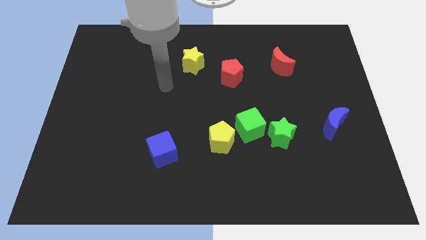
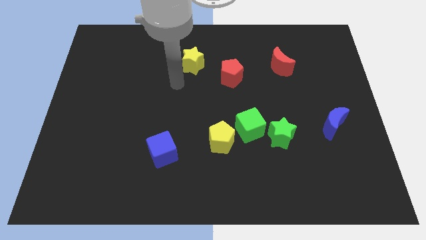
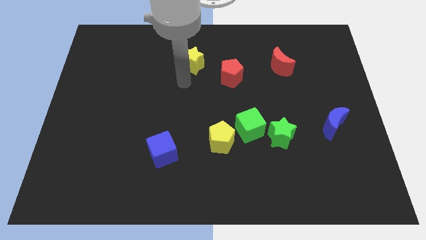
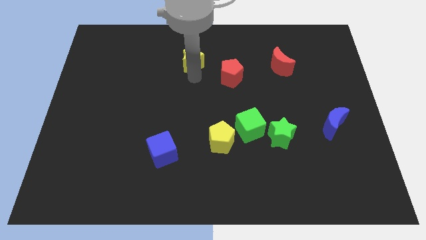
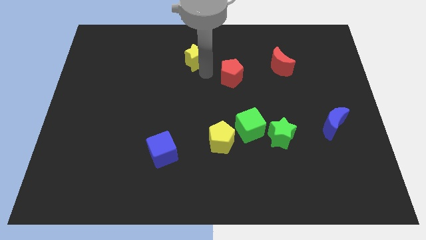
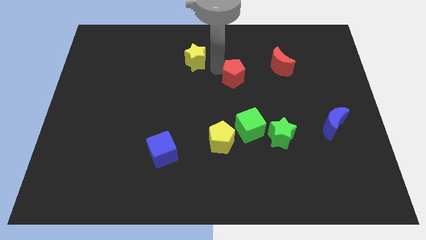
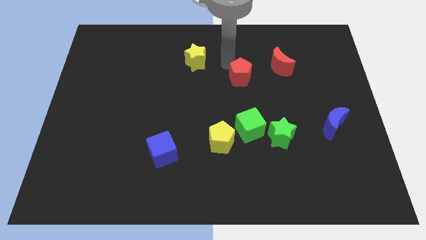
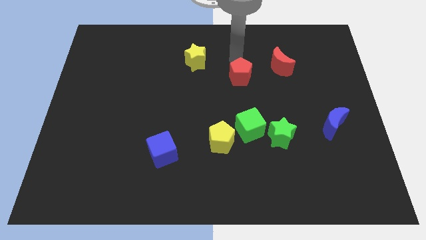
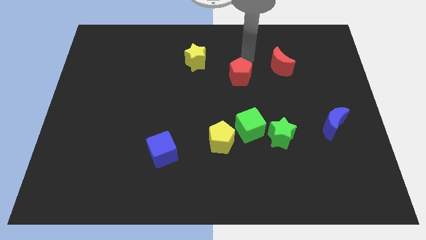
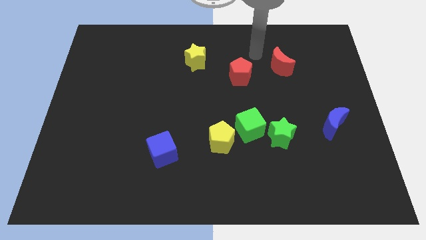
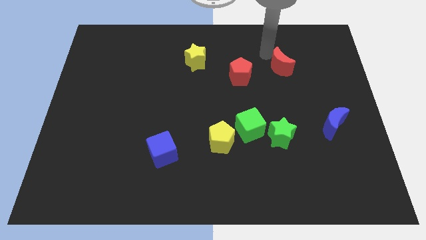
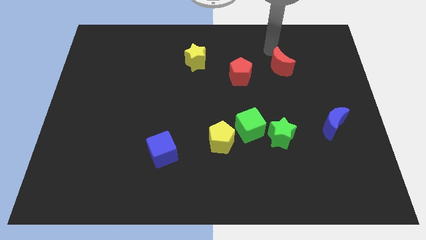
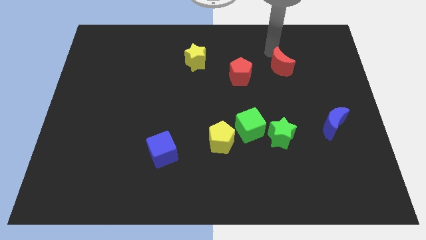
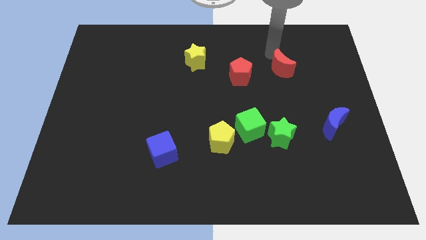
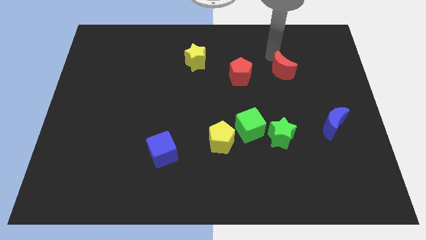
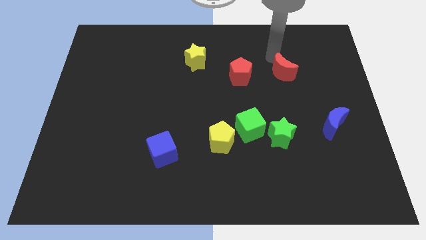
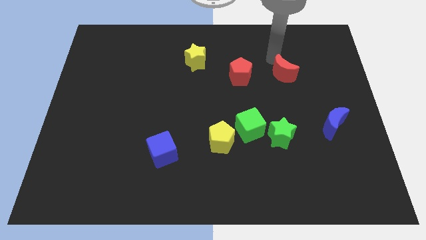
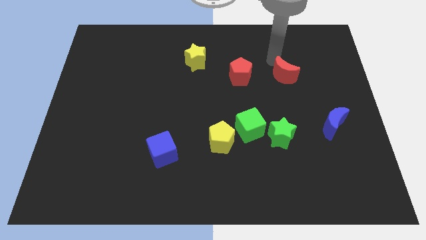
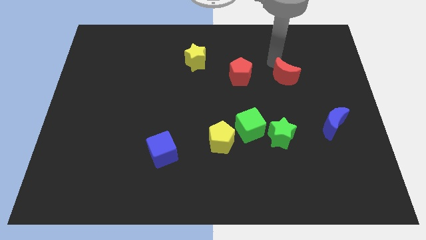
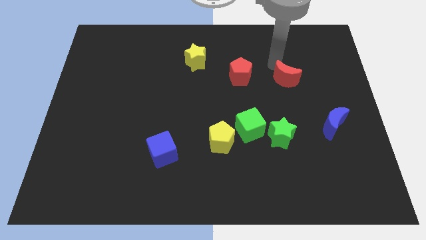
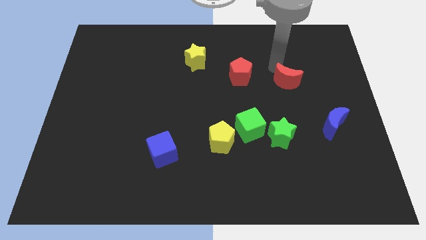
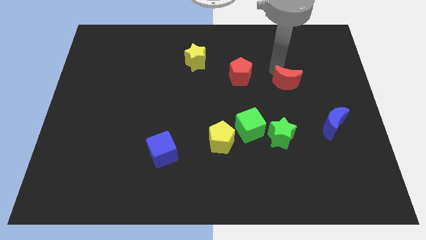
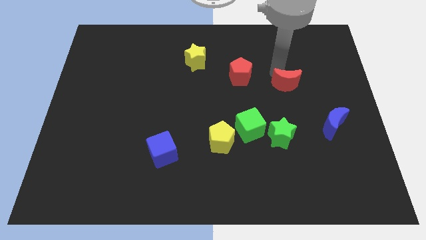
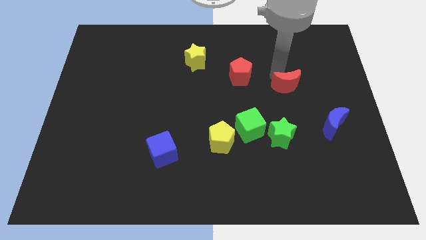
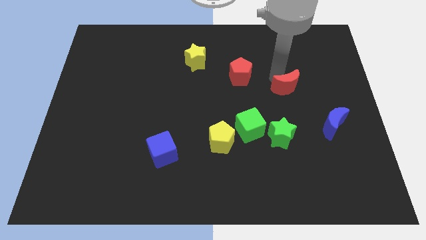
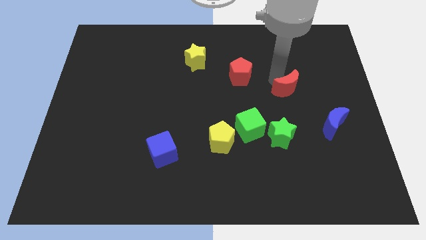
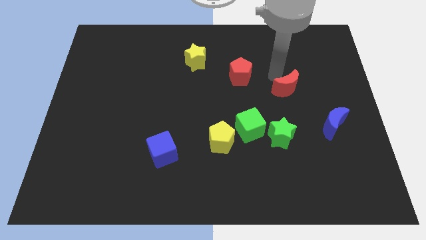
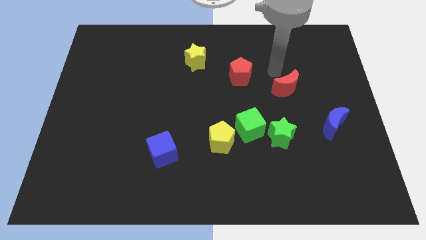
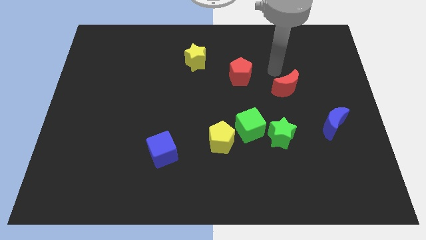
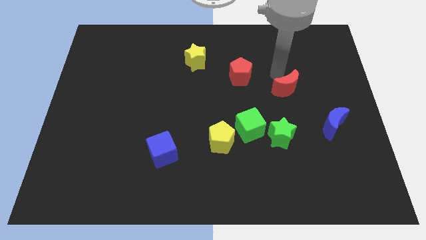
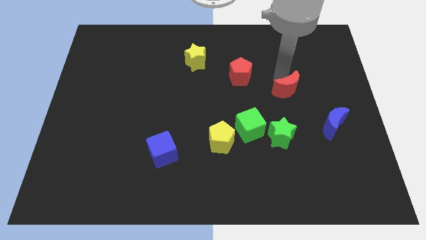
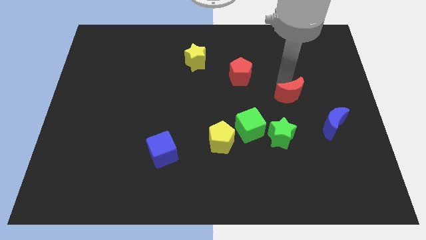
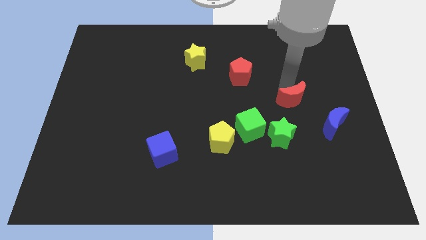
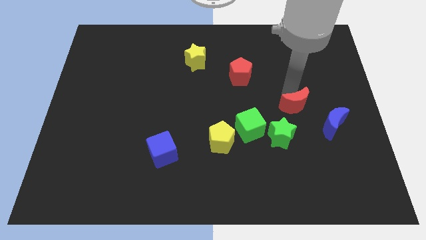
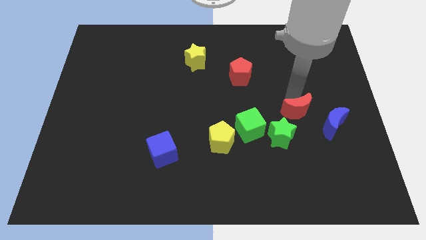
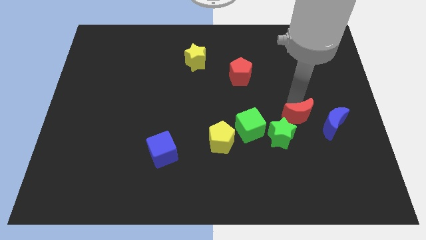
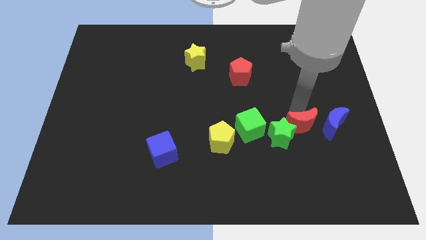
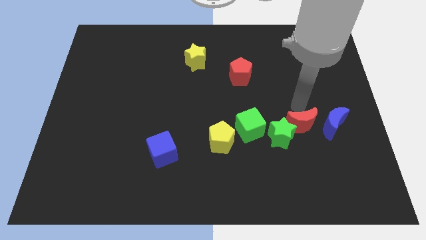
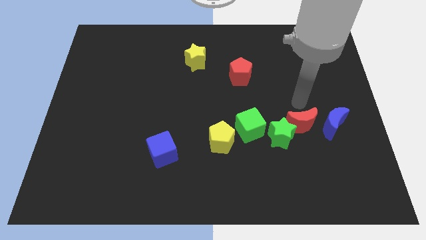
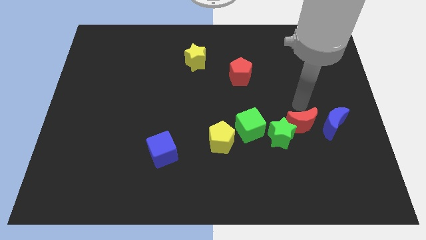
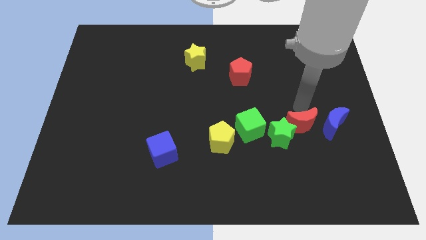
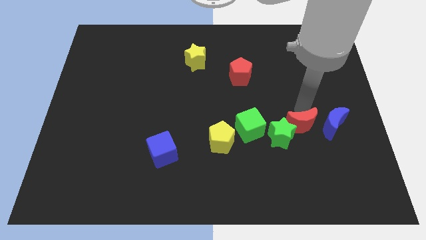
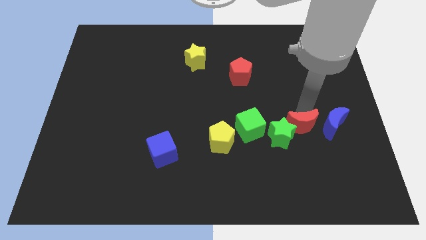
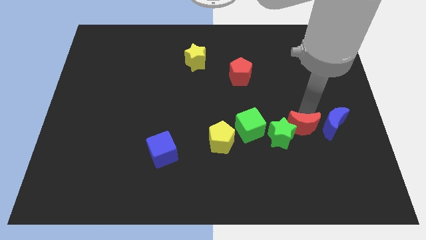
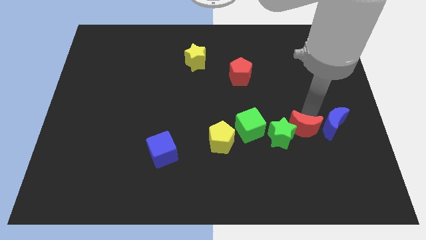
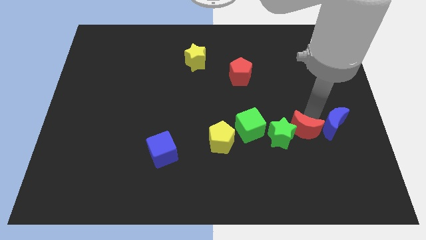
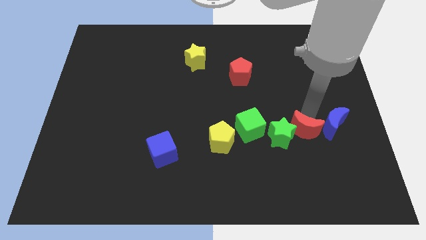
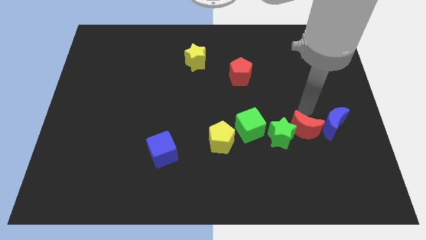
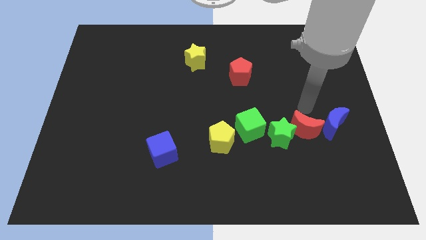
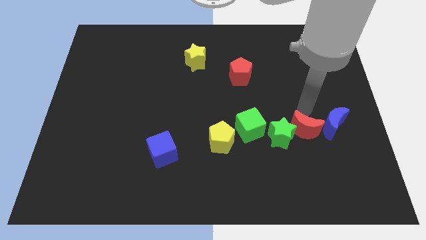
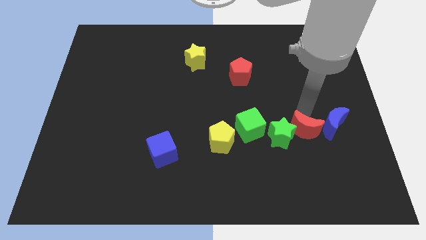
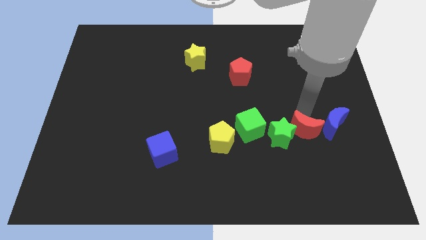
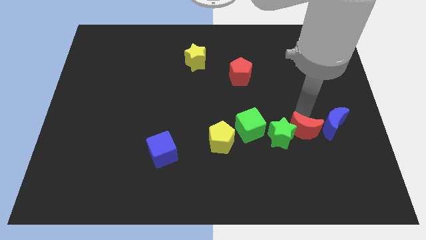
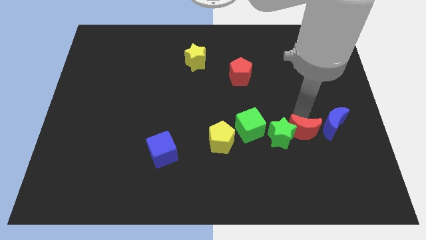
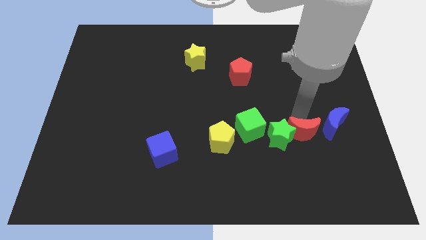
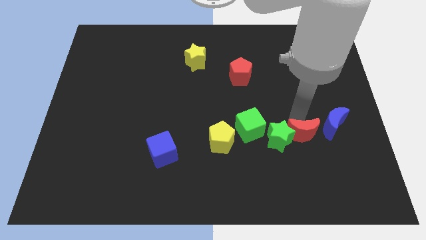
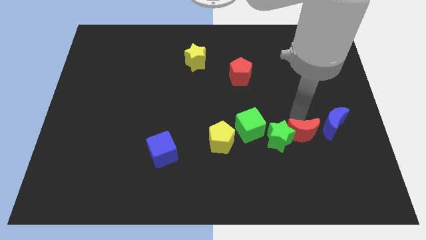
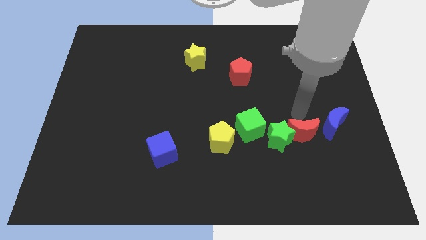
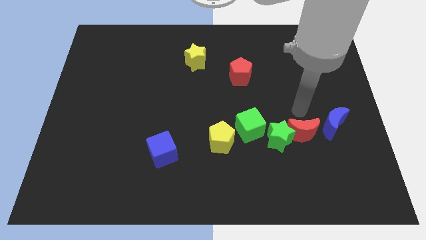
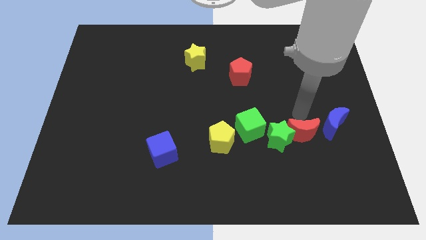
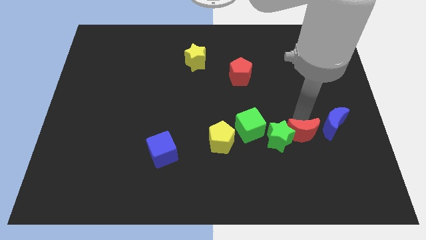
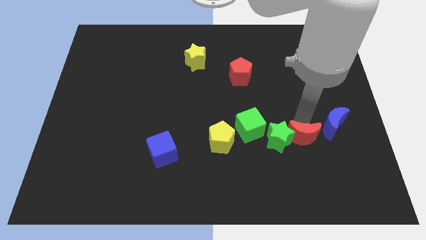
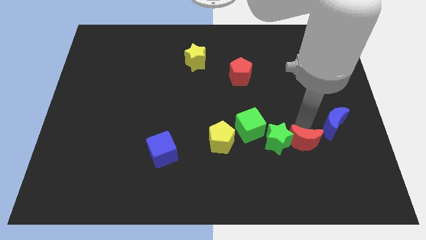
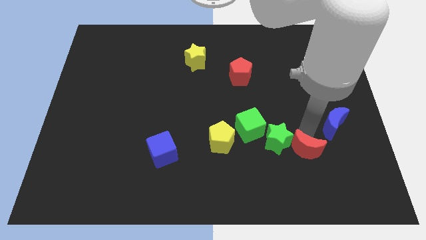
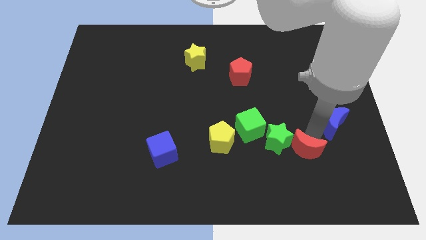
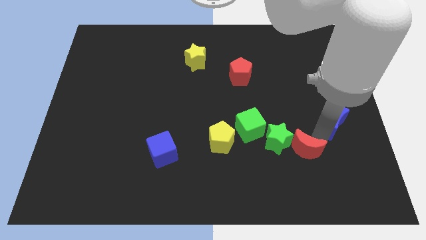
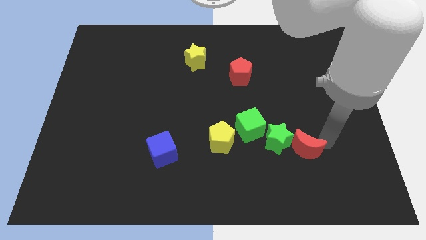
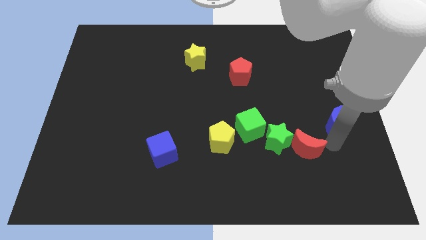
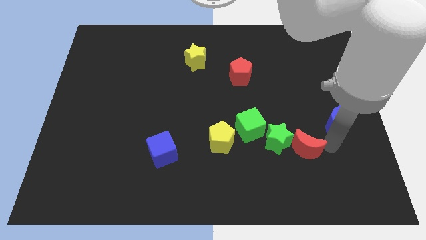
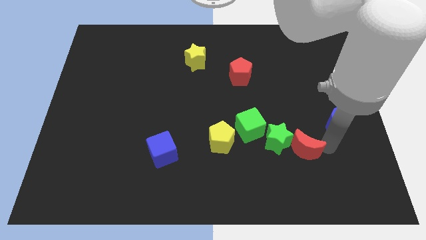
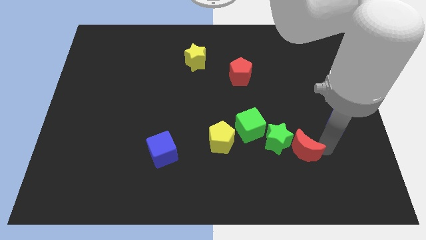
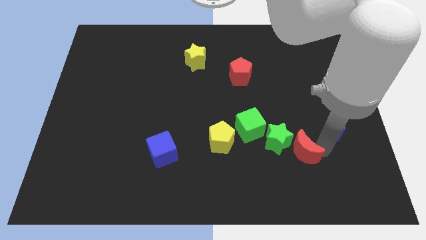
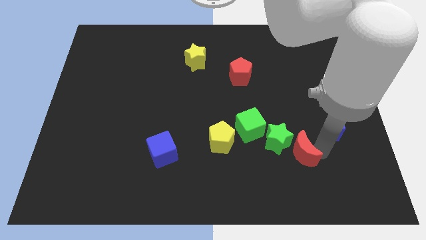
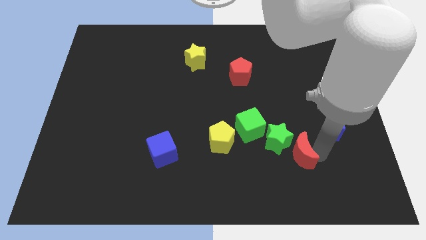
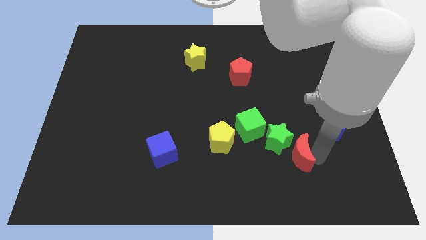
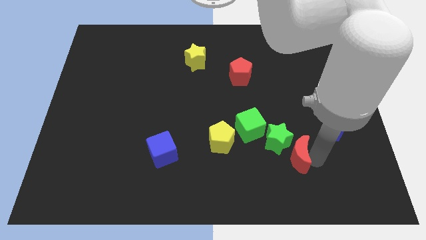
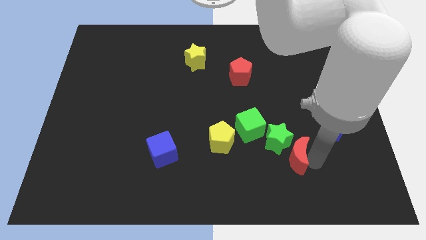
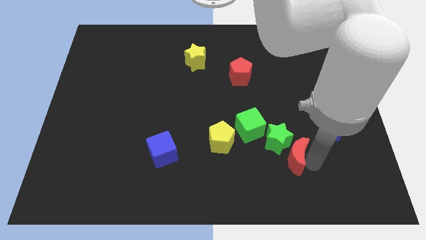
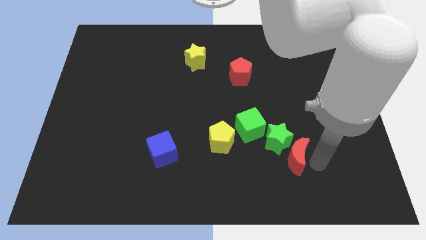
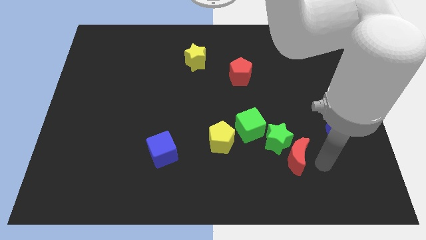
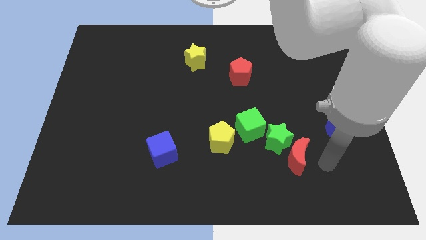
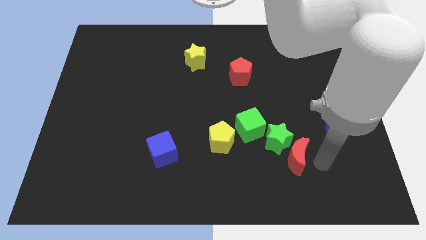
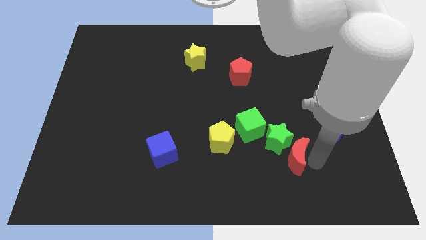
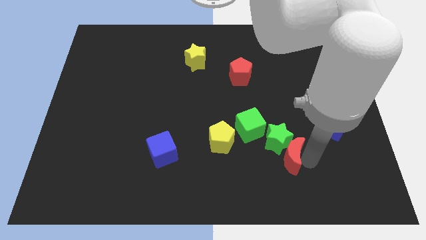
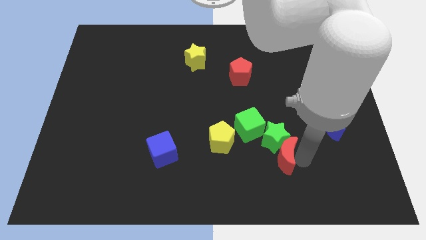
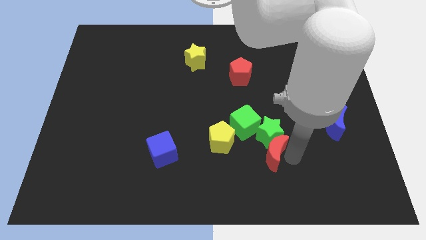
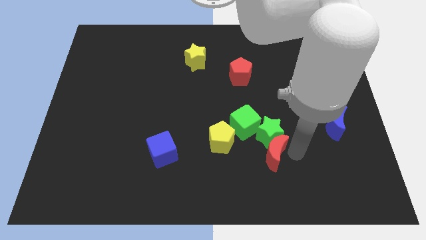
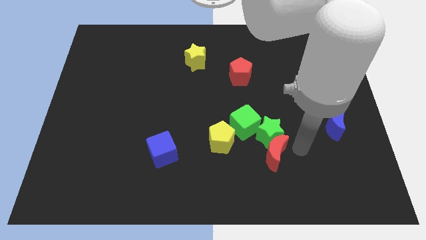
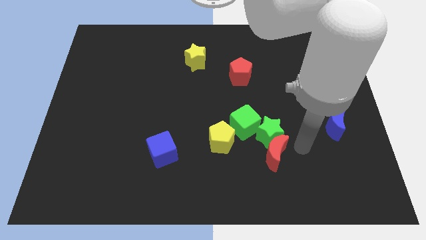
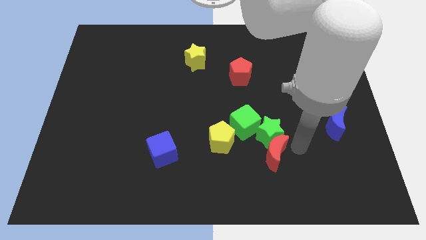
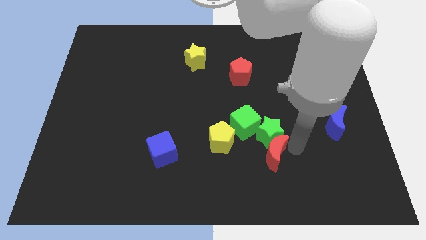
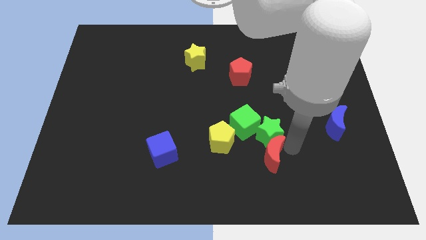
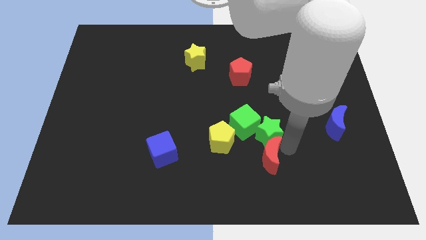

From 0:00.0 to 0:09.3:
move the red moon to the bottom right side of the yellow pentagon
